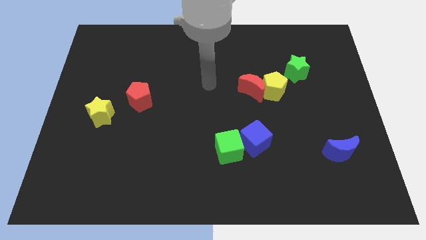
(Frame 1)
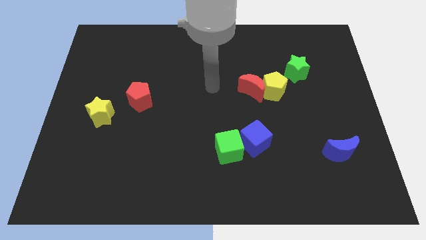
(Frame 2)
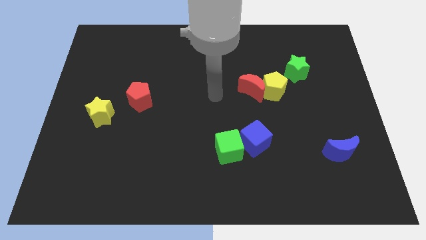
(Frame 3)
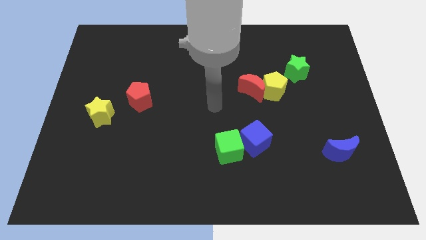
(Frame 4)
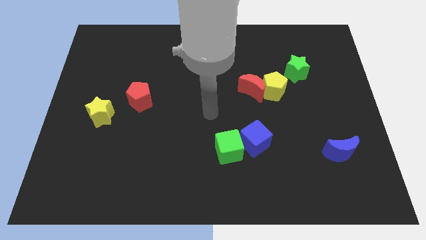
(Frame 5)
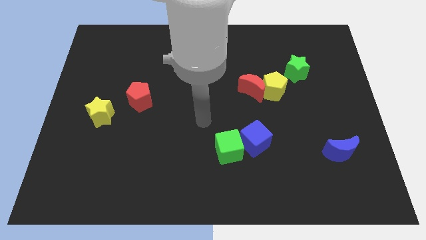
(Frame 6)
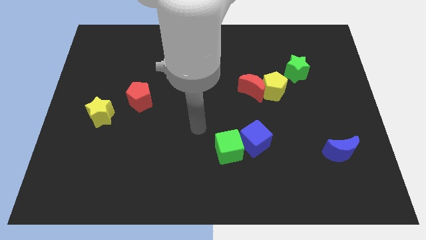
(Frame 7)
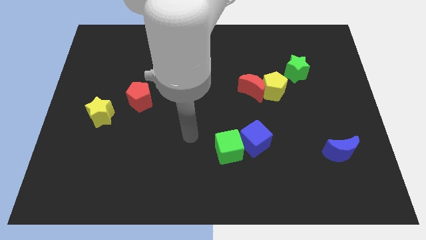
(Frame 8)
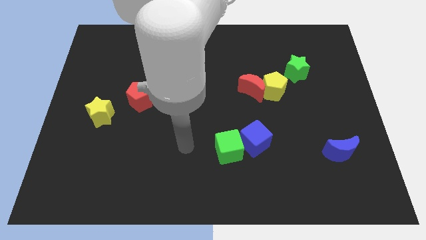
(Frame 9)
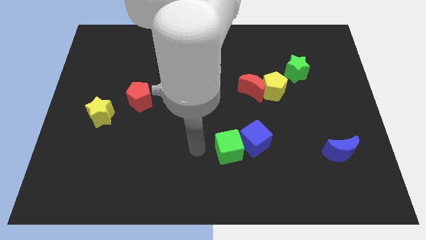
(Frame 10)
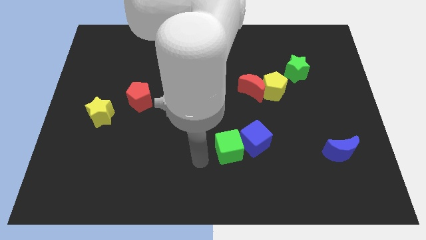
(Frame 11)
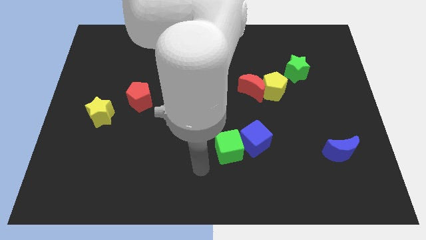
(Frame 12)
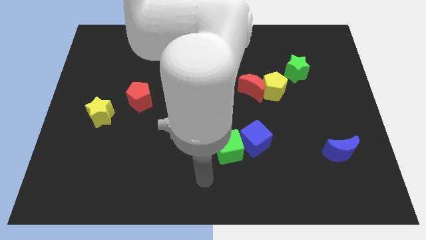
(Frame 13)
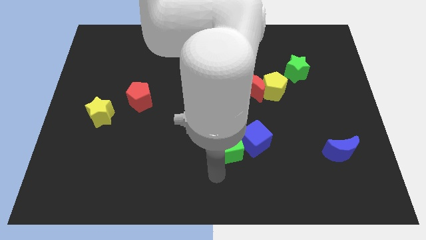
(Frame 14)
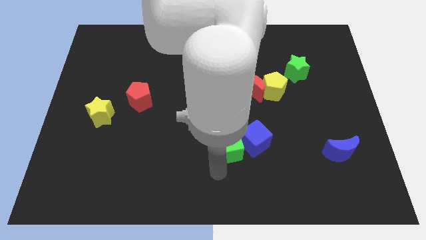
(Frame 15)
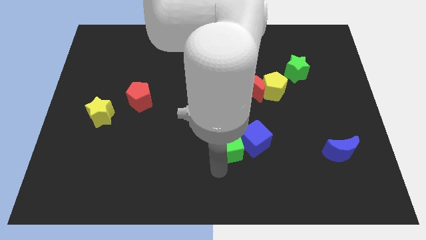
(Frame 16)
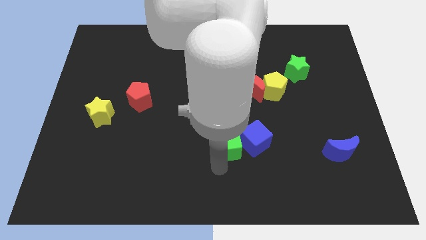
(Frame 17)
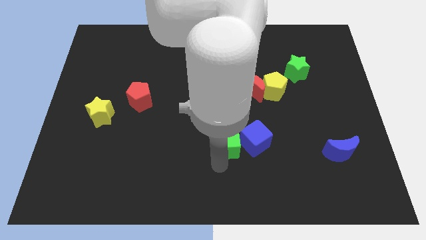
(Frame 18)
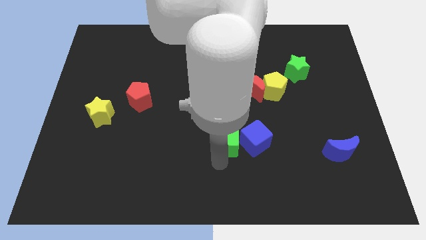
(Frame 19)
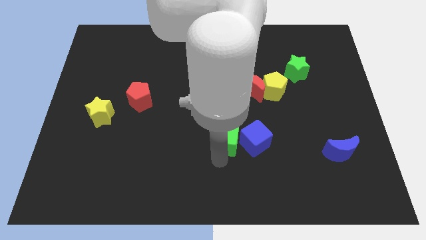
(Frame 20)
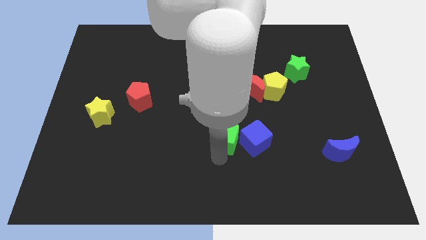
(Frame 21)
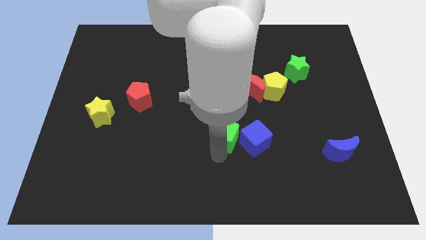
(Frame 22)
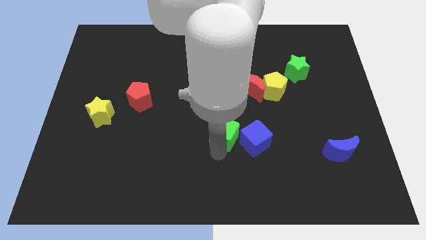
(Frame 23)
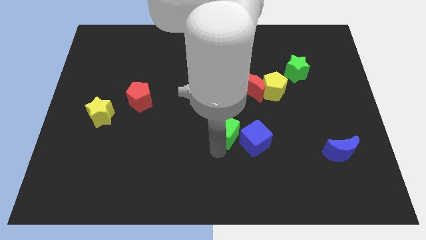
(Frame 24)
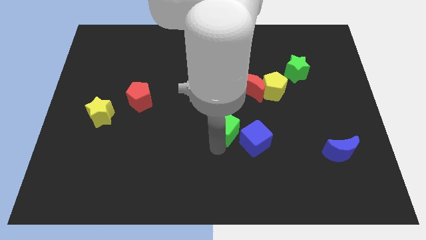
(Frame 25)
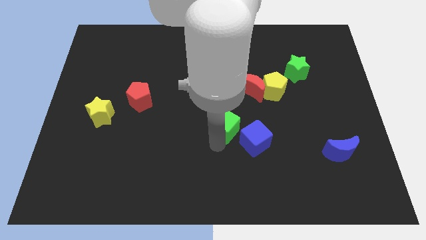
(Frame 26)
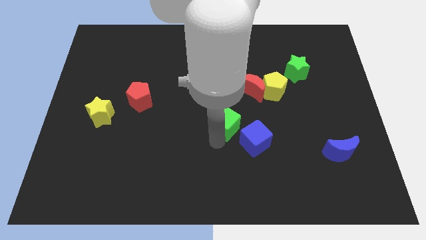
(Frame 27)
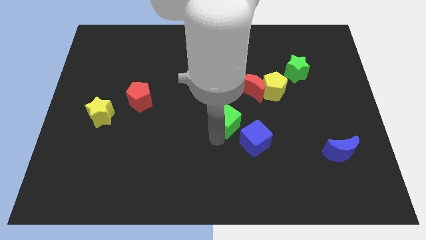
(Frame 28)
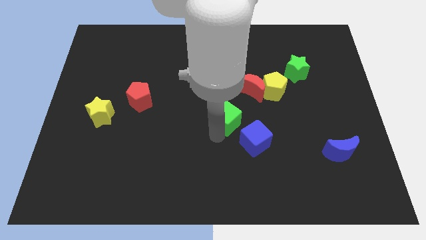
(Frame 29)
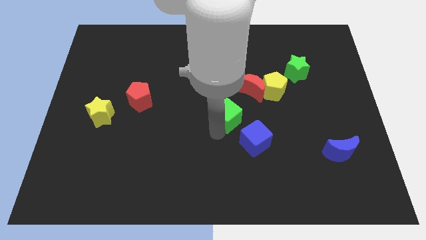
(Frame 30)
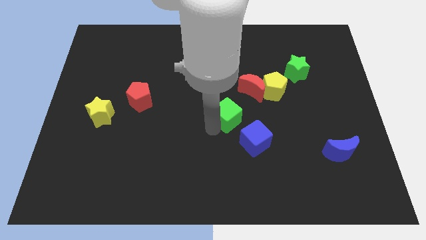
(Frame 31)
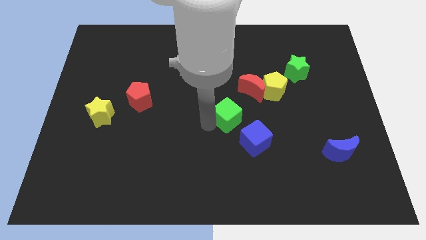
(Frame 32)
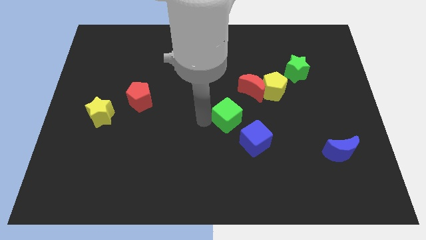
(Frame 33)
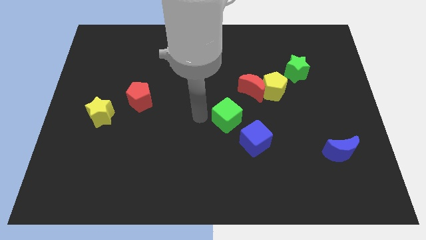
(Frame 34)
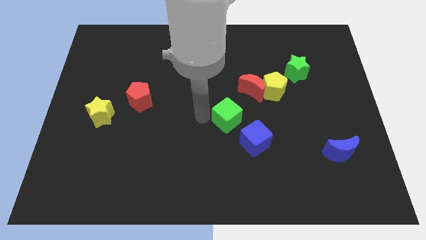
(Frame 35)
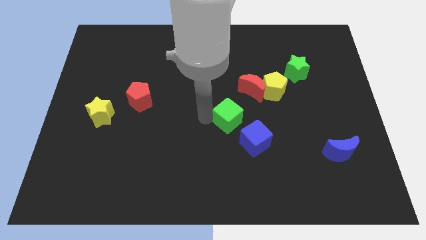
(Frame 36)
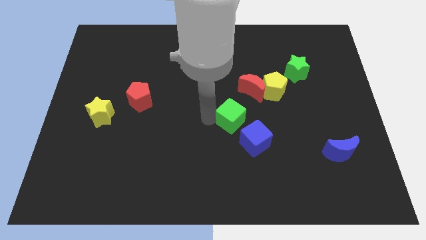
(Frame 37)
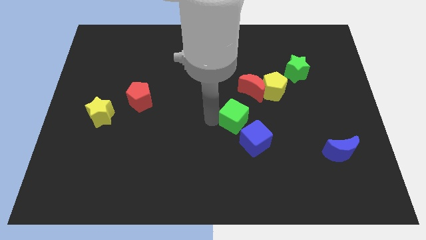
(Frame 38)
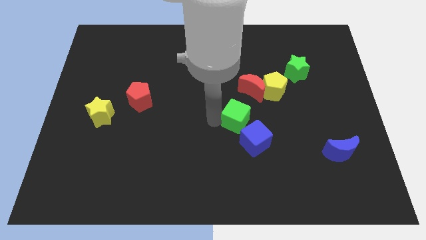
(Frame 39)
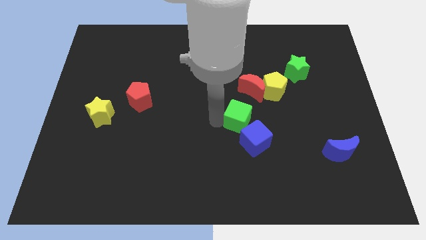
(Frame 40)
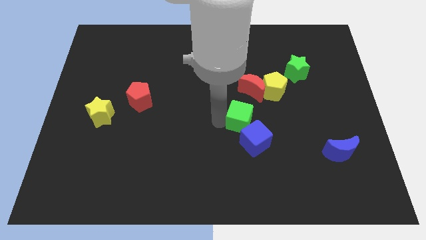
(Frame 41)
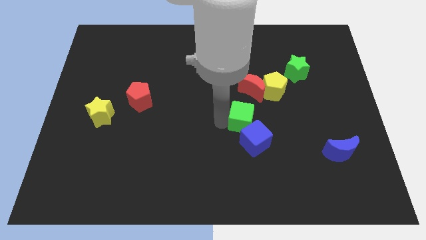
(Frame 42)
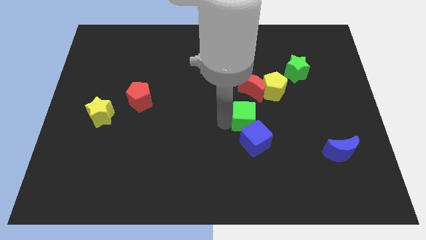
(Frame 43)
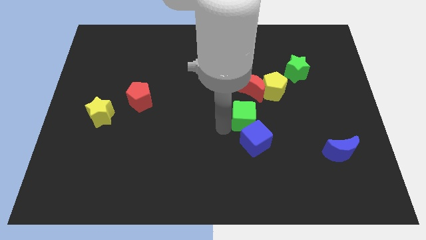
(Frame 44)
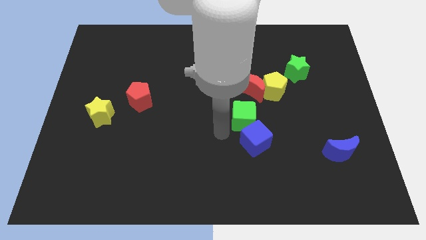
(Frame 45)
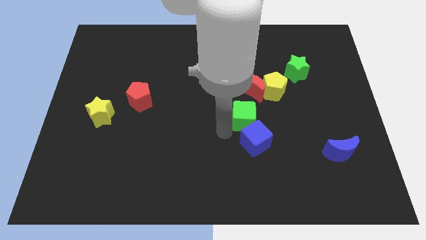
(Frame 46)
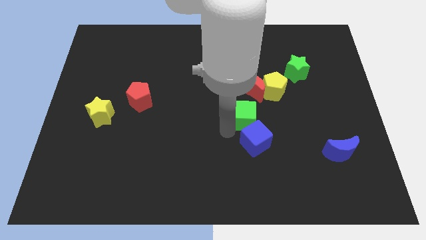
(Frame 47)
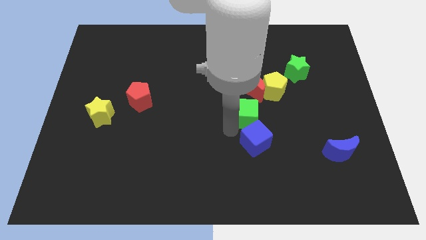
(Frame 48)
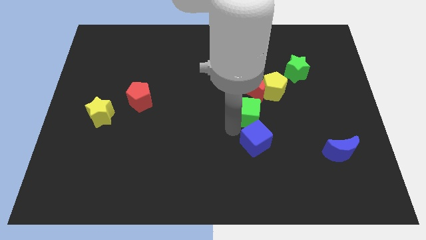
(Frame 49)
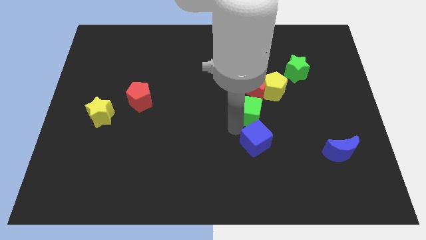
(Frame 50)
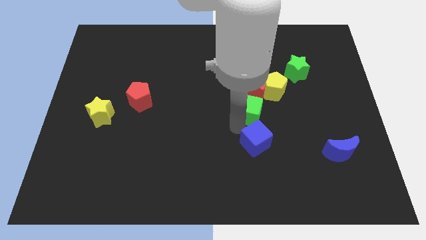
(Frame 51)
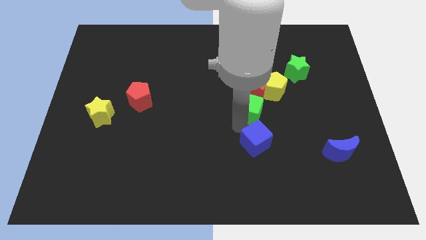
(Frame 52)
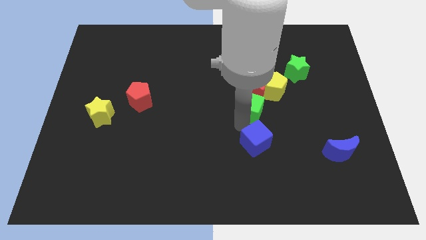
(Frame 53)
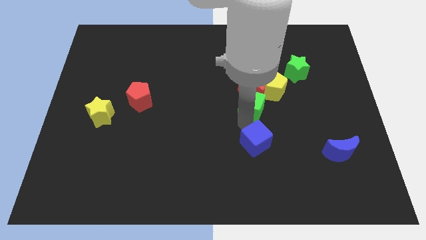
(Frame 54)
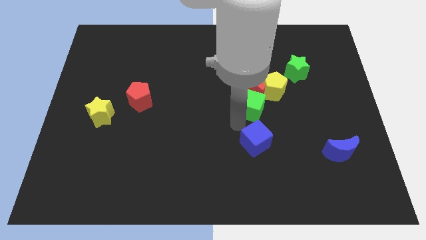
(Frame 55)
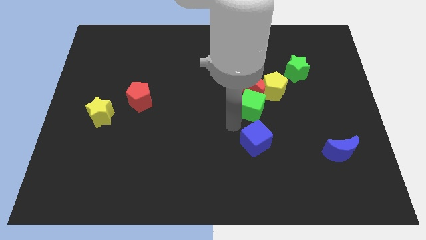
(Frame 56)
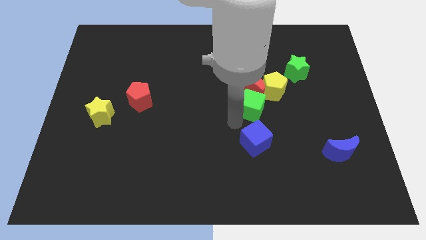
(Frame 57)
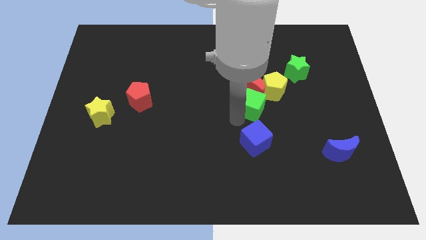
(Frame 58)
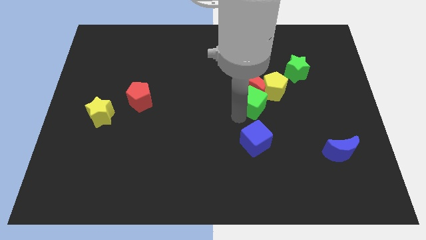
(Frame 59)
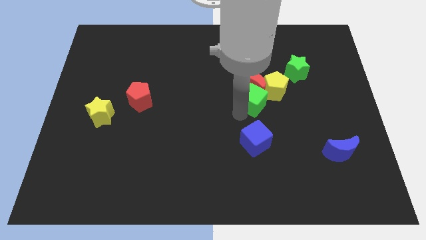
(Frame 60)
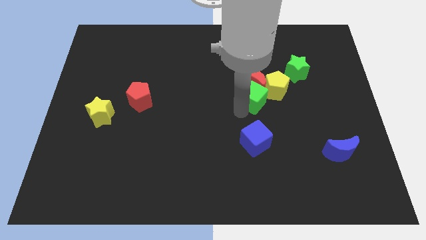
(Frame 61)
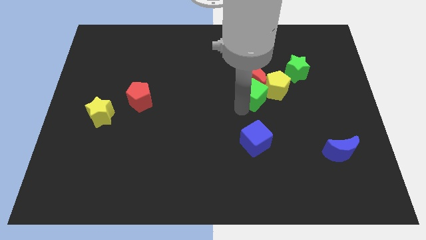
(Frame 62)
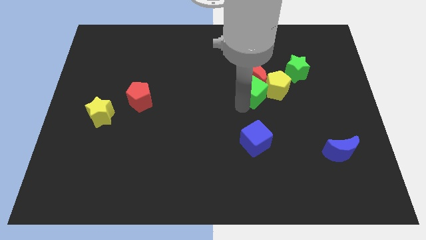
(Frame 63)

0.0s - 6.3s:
move the green cube to the yellow pentagon

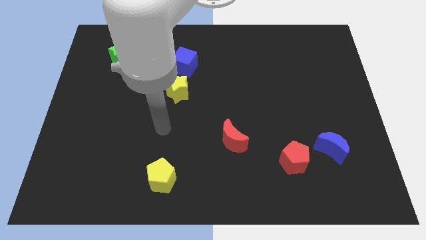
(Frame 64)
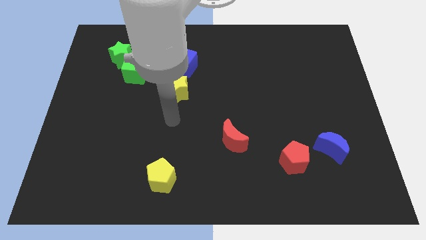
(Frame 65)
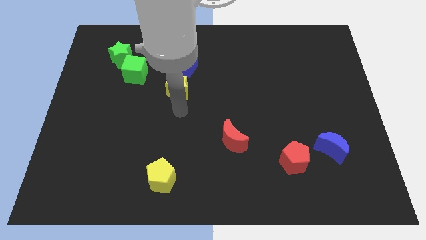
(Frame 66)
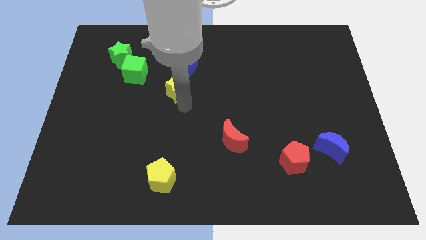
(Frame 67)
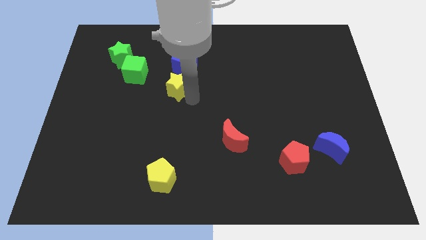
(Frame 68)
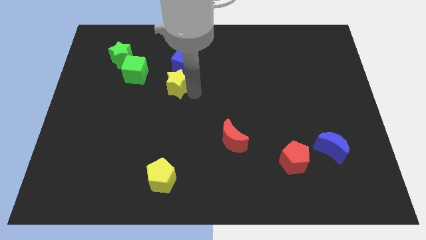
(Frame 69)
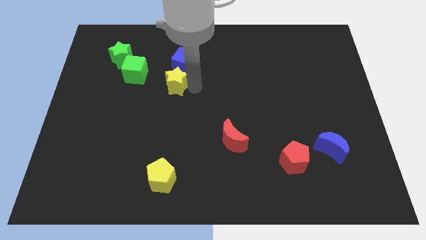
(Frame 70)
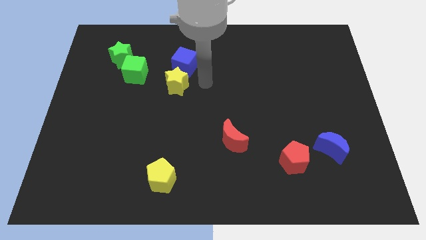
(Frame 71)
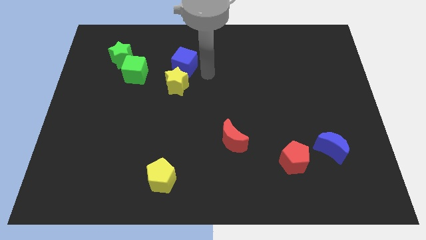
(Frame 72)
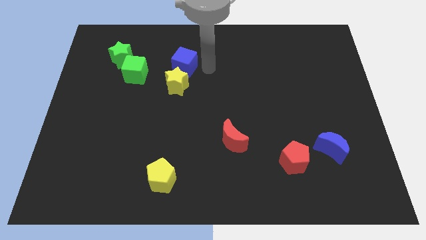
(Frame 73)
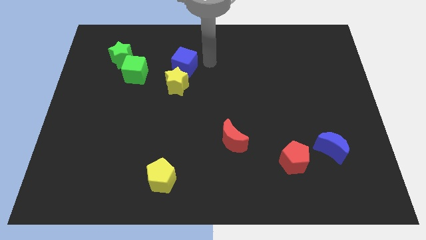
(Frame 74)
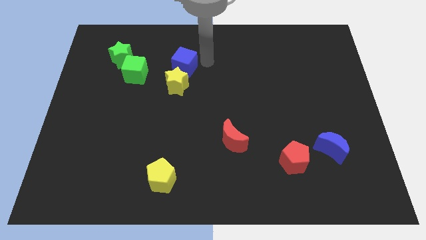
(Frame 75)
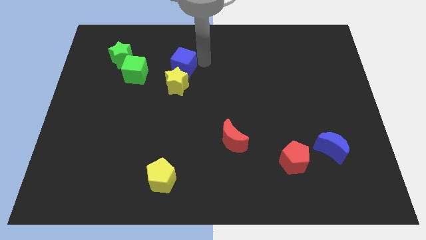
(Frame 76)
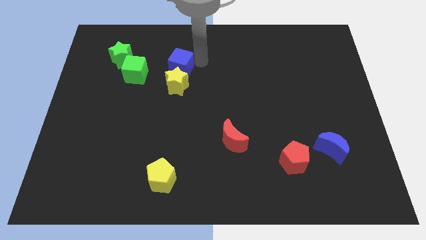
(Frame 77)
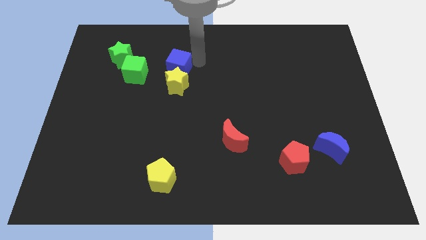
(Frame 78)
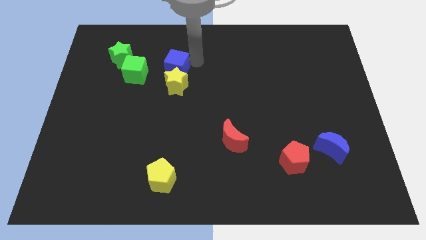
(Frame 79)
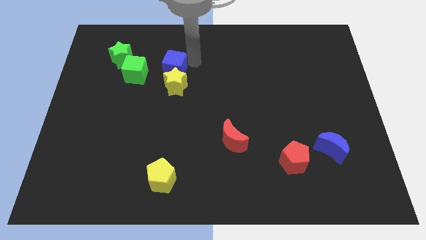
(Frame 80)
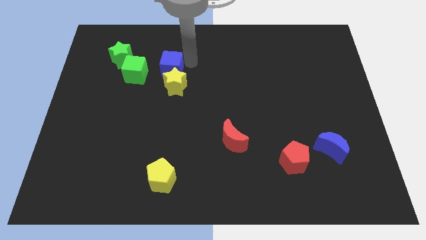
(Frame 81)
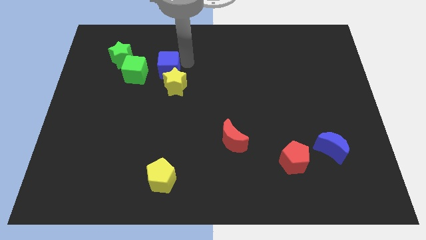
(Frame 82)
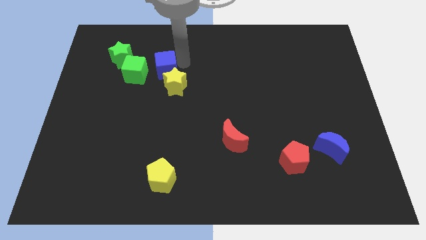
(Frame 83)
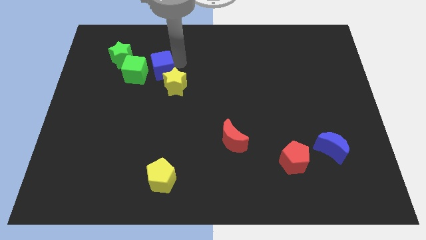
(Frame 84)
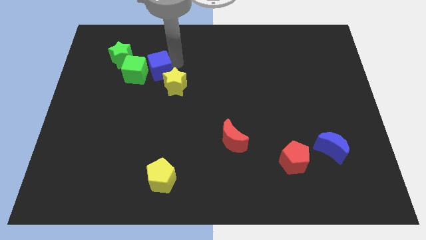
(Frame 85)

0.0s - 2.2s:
push the blue cube next to the green cube
